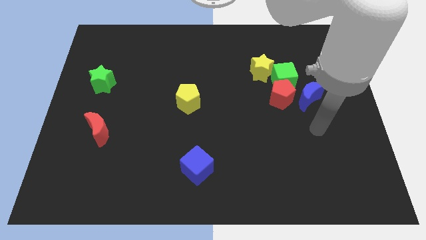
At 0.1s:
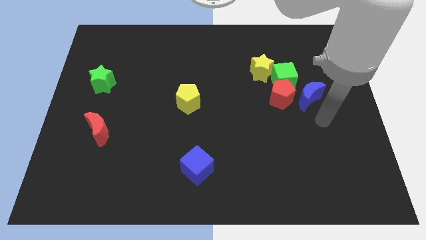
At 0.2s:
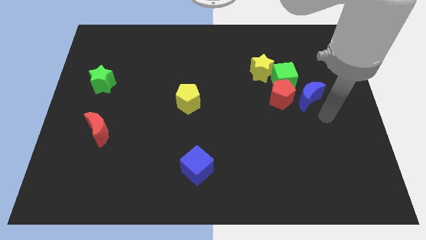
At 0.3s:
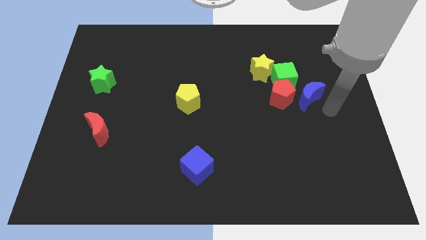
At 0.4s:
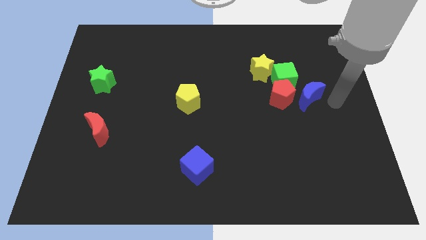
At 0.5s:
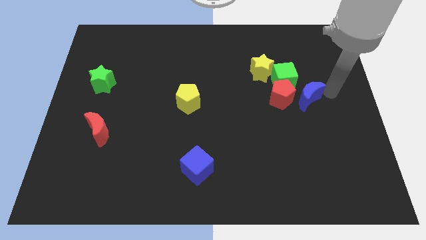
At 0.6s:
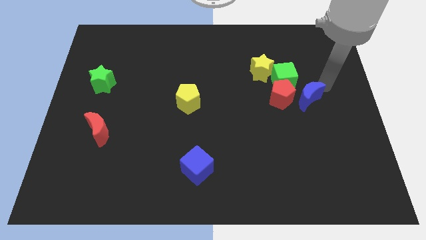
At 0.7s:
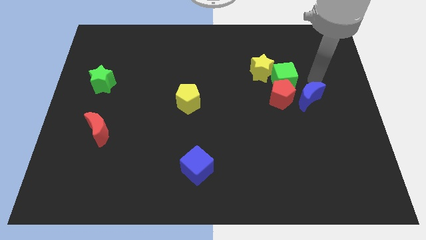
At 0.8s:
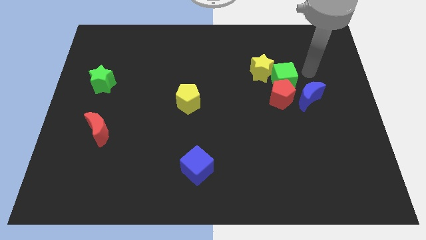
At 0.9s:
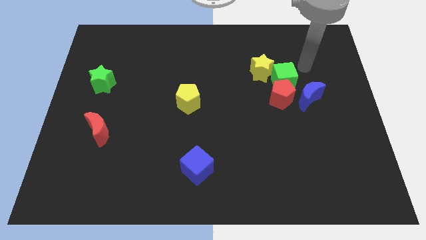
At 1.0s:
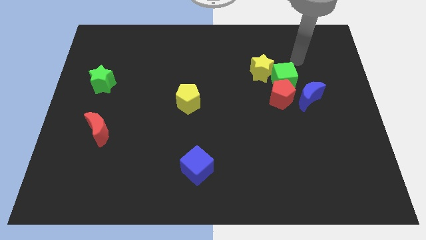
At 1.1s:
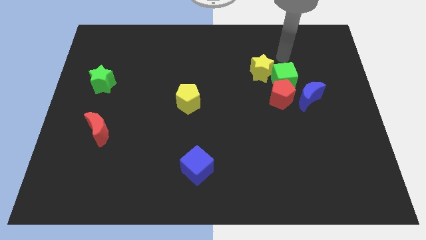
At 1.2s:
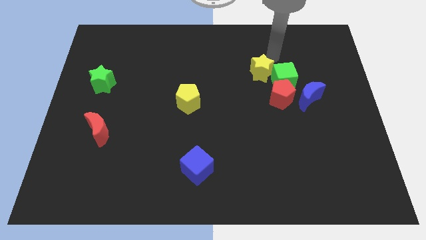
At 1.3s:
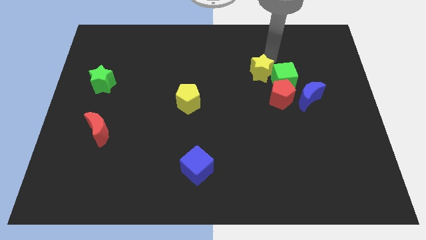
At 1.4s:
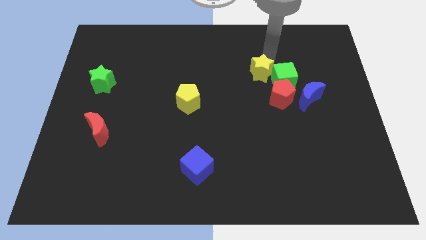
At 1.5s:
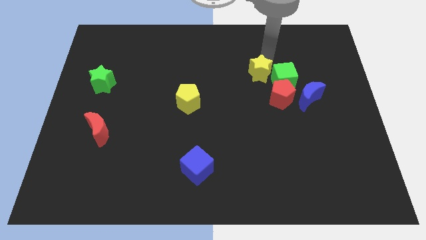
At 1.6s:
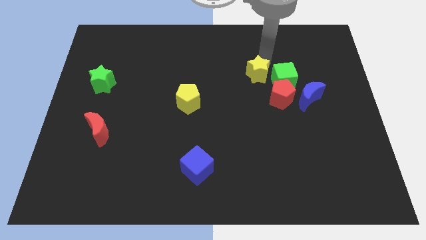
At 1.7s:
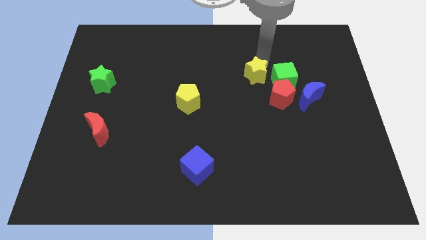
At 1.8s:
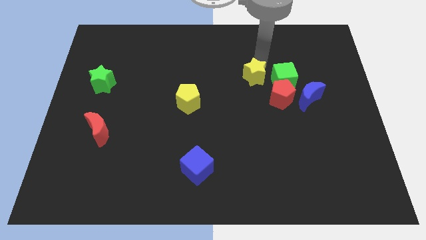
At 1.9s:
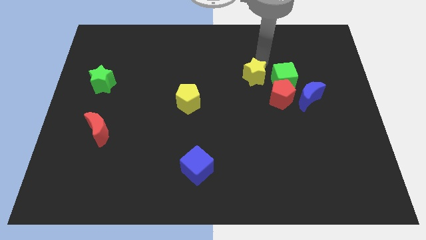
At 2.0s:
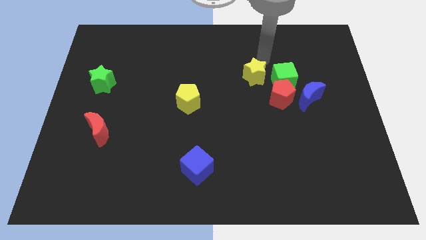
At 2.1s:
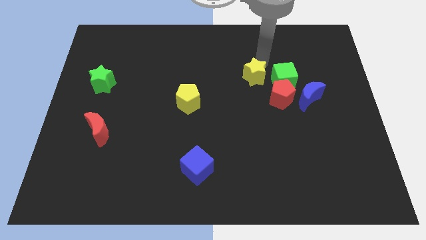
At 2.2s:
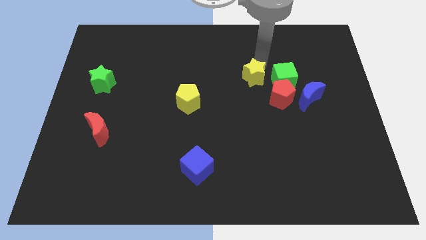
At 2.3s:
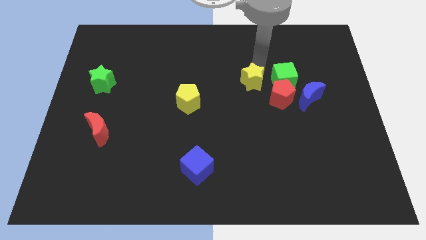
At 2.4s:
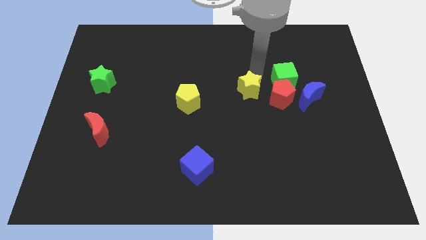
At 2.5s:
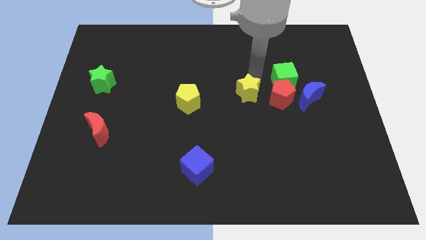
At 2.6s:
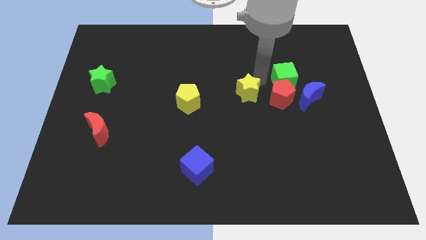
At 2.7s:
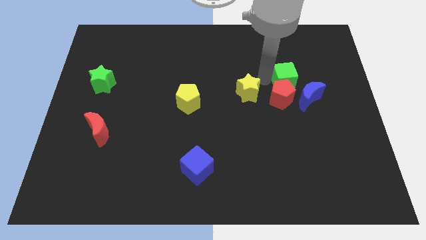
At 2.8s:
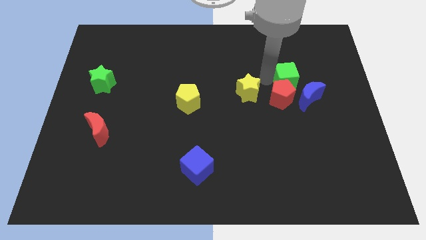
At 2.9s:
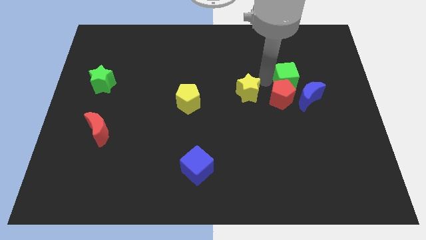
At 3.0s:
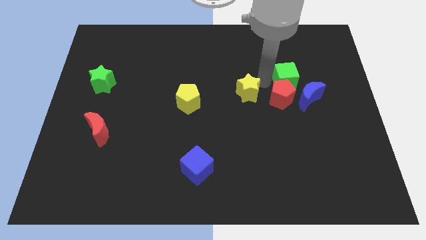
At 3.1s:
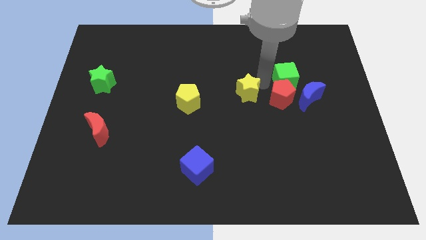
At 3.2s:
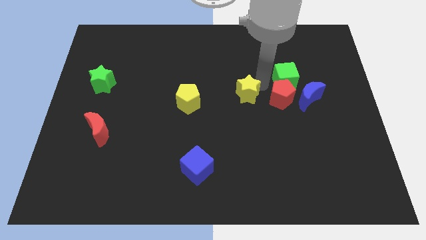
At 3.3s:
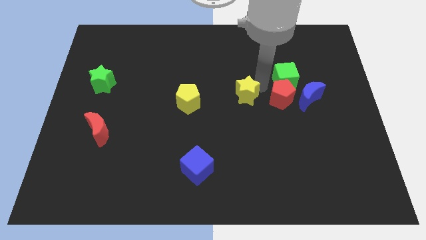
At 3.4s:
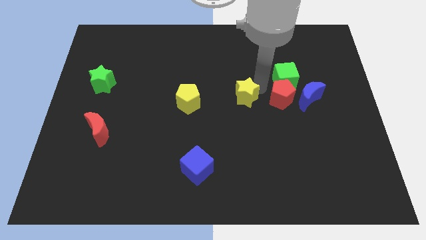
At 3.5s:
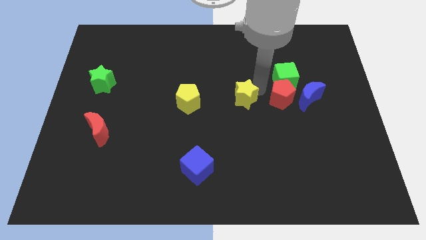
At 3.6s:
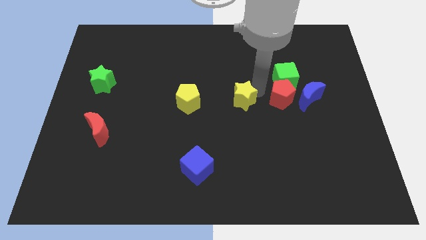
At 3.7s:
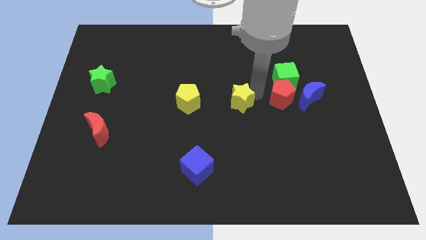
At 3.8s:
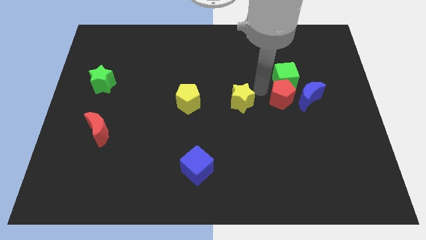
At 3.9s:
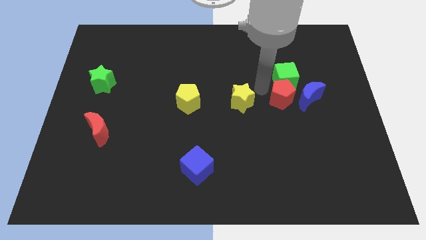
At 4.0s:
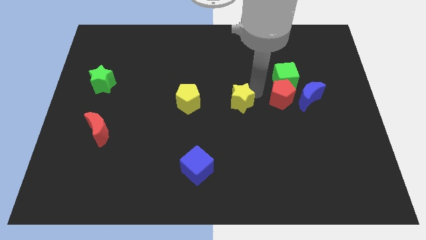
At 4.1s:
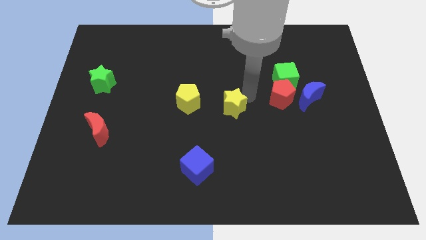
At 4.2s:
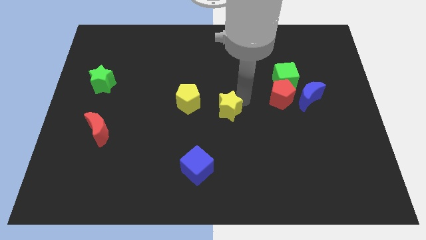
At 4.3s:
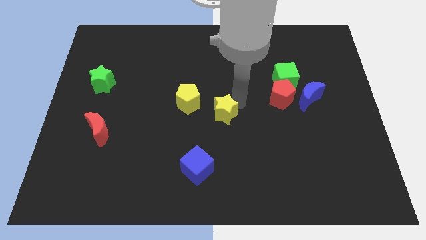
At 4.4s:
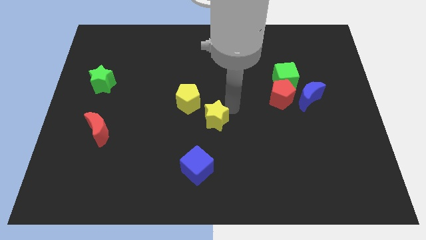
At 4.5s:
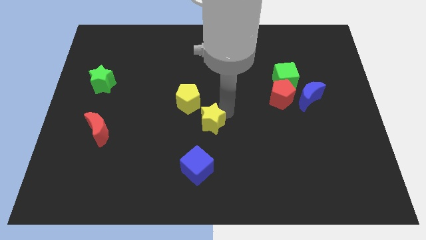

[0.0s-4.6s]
slide the yellow star down and left diagonally

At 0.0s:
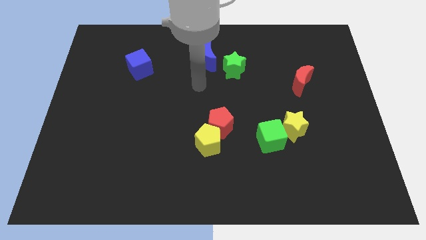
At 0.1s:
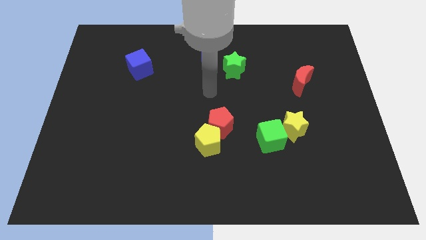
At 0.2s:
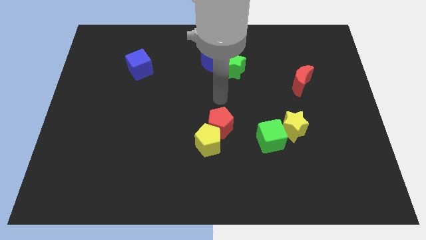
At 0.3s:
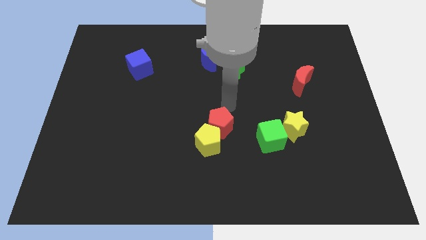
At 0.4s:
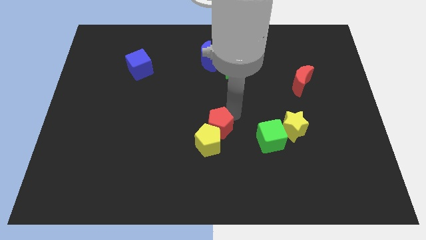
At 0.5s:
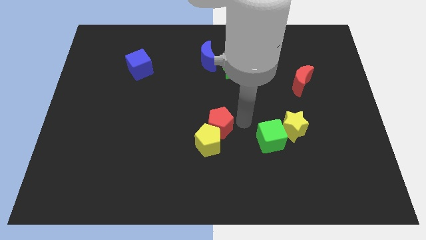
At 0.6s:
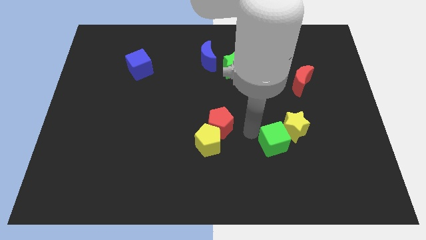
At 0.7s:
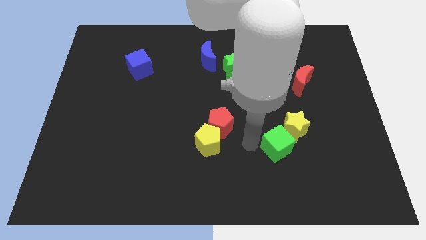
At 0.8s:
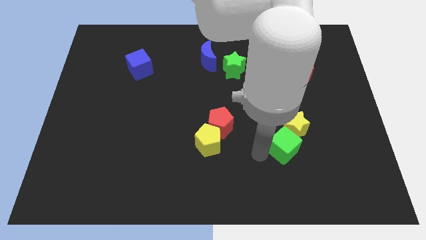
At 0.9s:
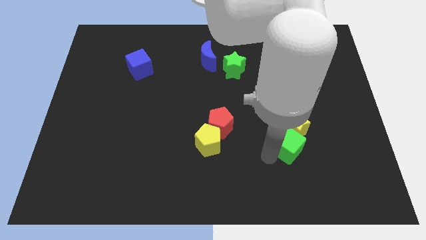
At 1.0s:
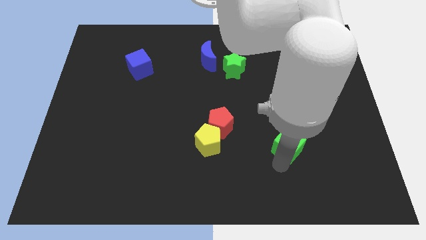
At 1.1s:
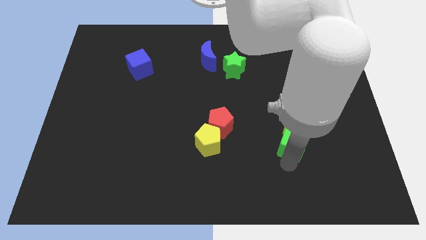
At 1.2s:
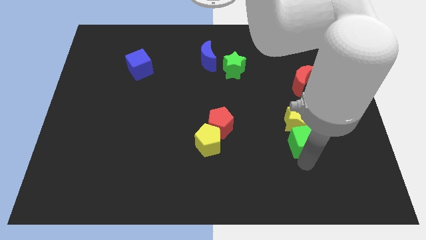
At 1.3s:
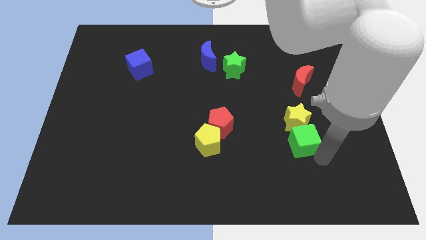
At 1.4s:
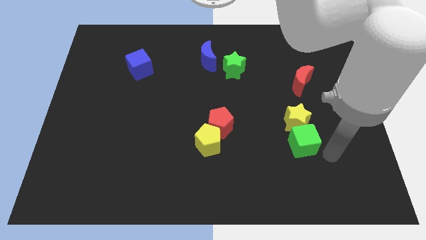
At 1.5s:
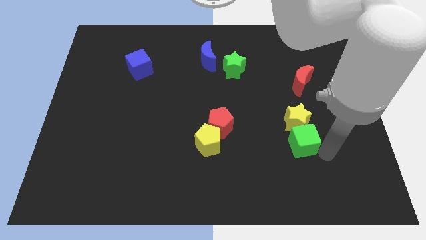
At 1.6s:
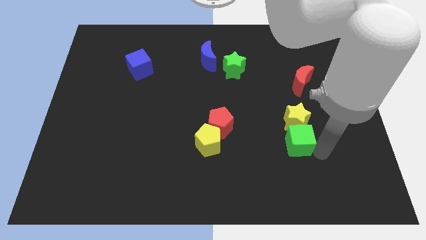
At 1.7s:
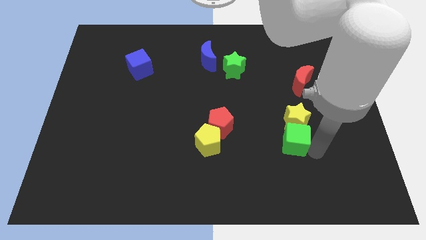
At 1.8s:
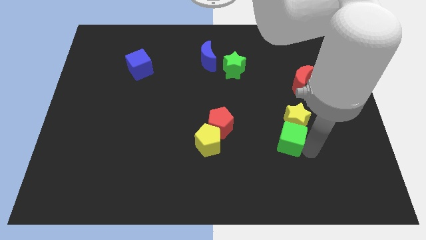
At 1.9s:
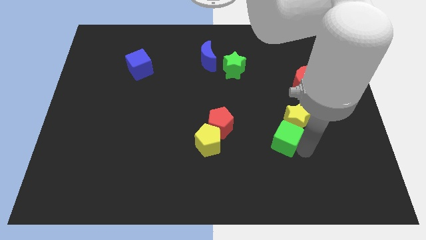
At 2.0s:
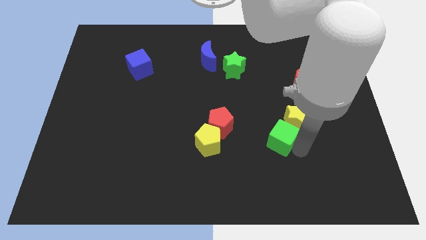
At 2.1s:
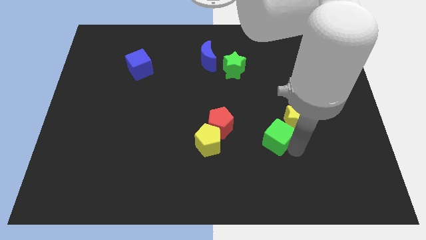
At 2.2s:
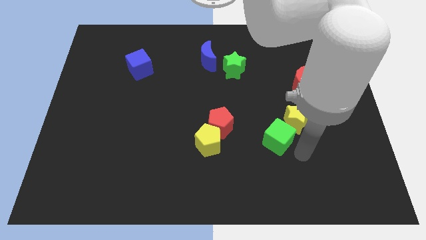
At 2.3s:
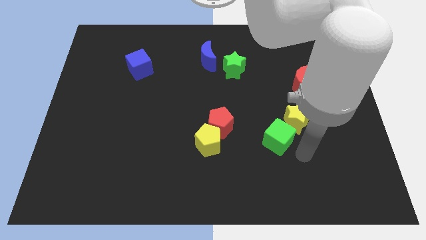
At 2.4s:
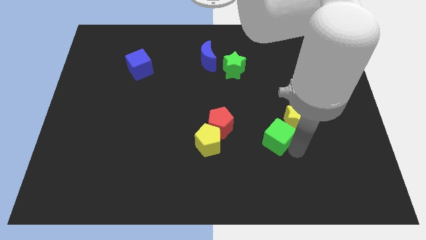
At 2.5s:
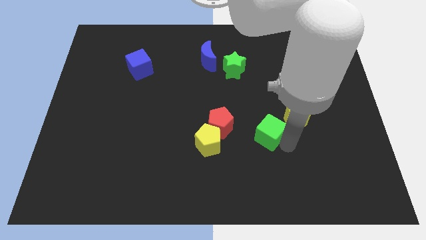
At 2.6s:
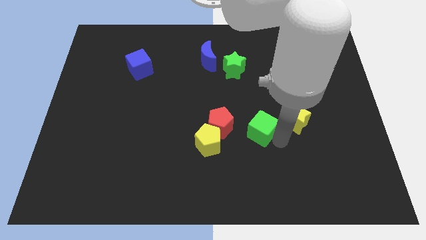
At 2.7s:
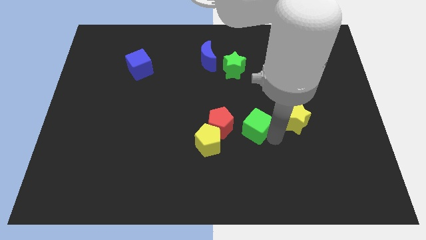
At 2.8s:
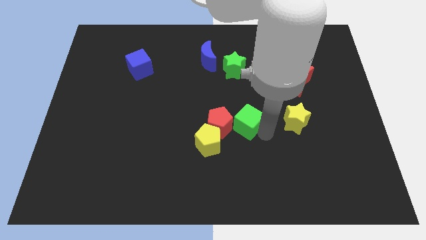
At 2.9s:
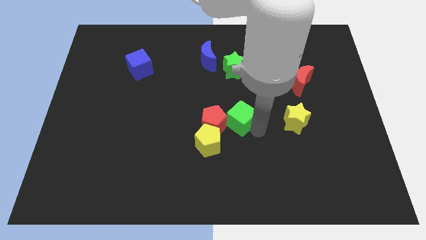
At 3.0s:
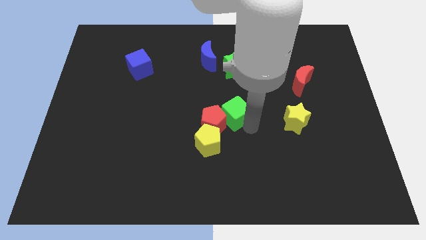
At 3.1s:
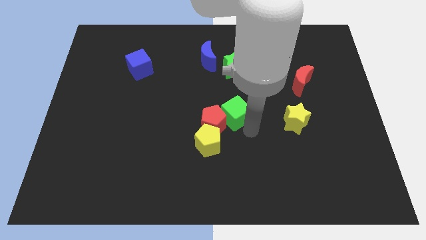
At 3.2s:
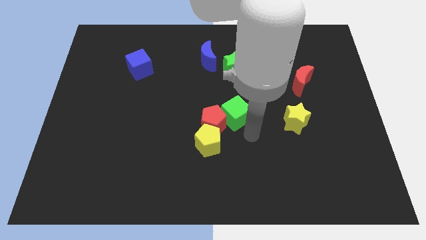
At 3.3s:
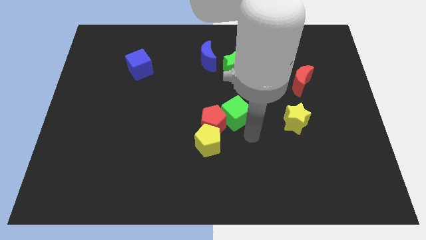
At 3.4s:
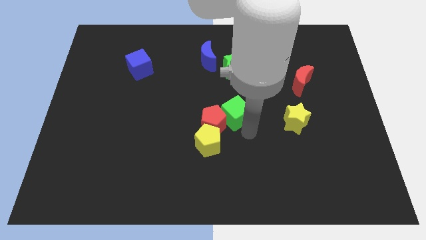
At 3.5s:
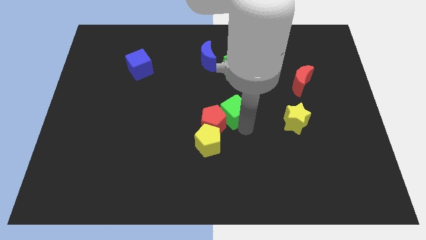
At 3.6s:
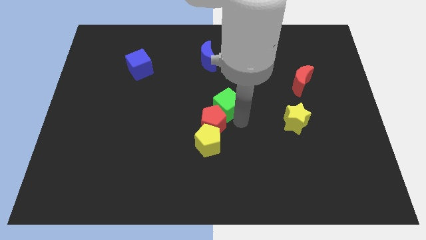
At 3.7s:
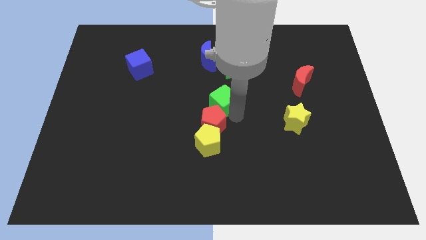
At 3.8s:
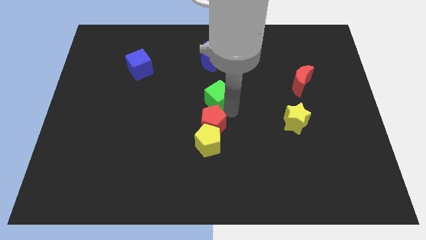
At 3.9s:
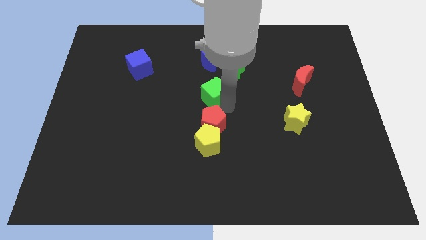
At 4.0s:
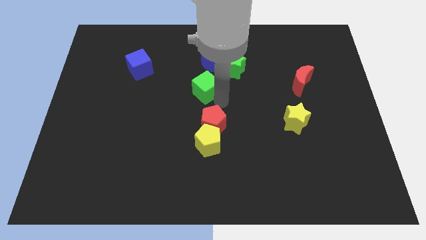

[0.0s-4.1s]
move the green cube upwards and to the left diagonally
